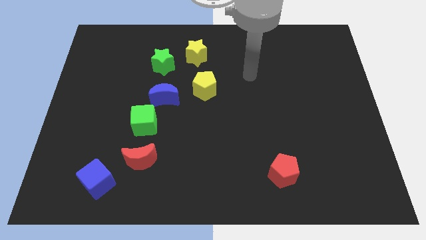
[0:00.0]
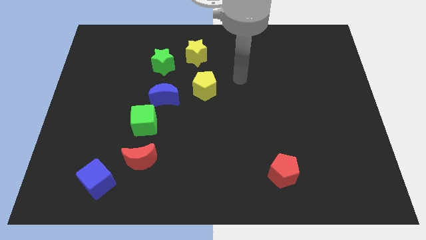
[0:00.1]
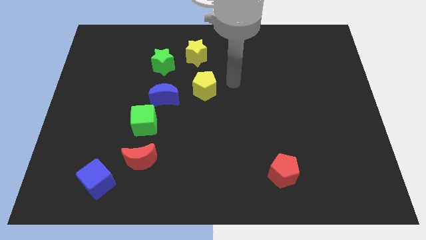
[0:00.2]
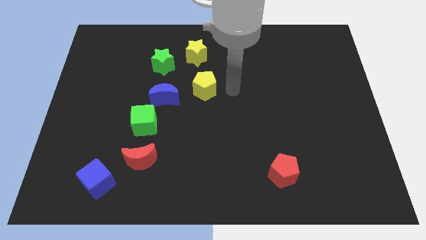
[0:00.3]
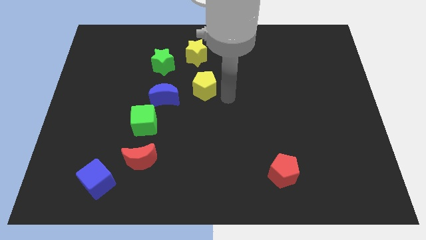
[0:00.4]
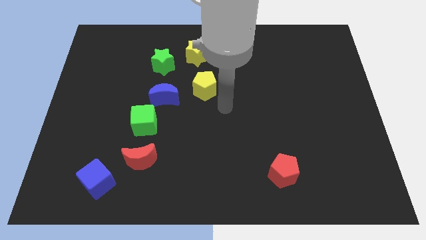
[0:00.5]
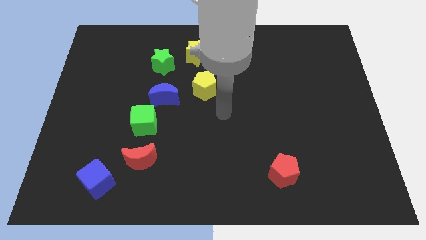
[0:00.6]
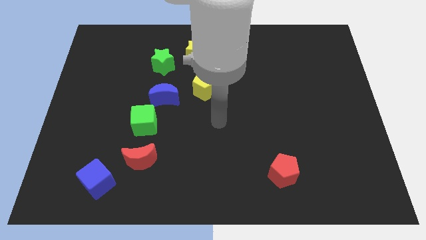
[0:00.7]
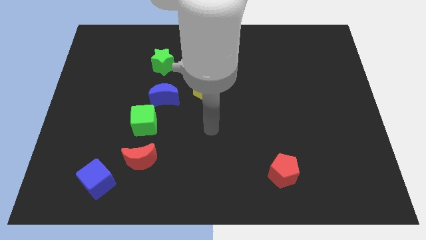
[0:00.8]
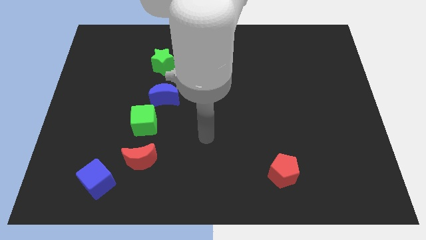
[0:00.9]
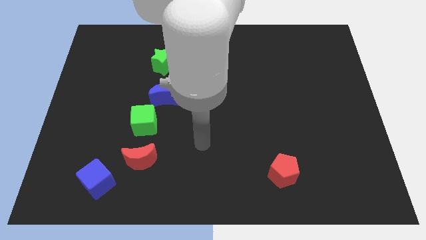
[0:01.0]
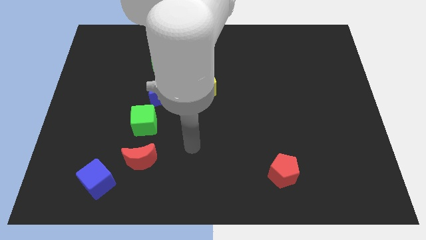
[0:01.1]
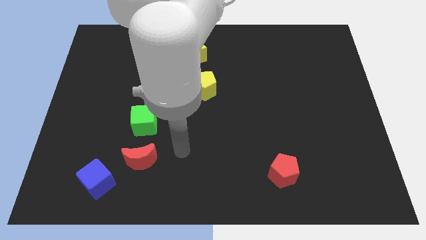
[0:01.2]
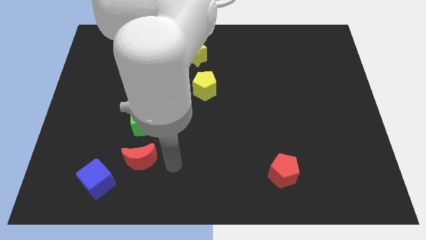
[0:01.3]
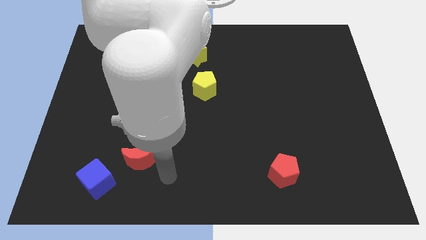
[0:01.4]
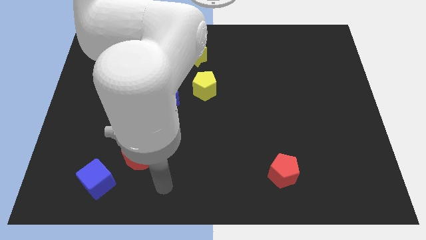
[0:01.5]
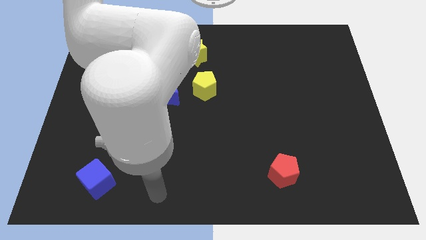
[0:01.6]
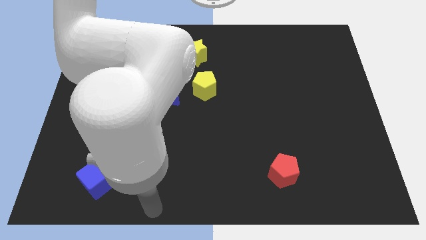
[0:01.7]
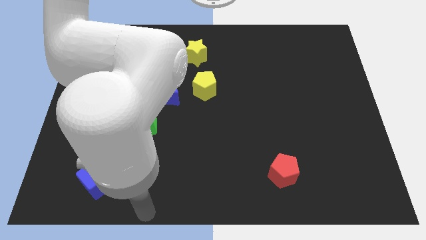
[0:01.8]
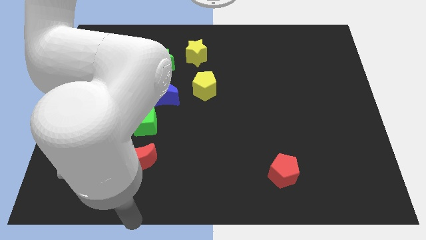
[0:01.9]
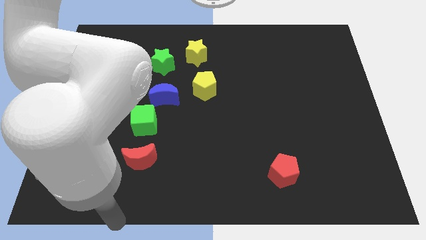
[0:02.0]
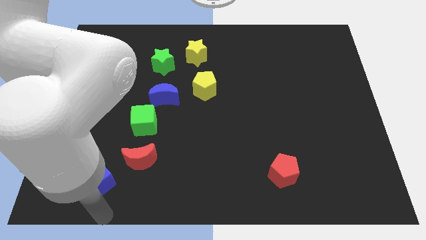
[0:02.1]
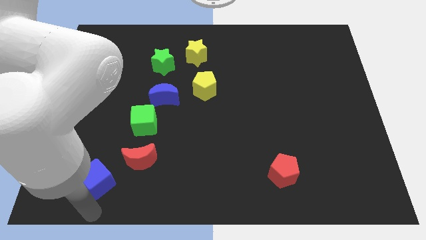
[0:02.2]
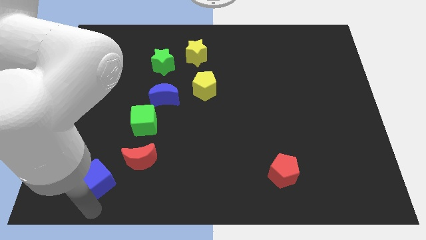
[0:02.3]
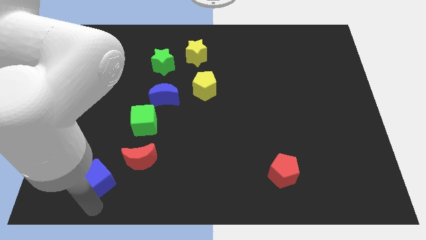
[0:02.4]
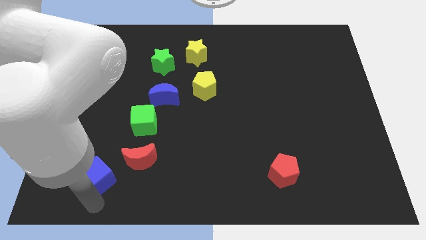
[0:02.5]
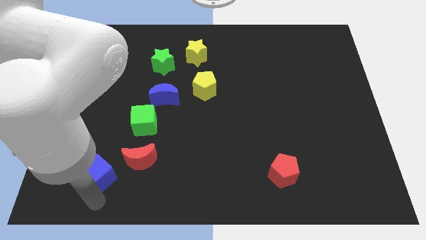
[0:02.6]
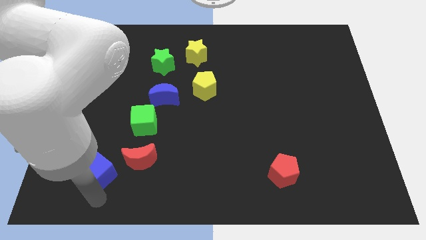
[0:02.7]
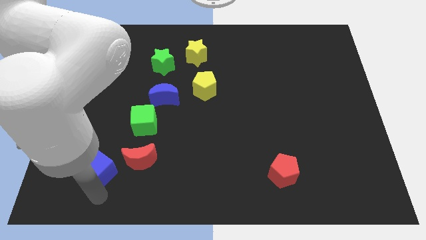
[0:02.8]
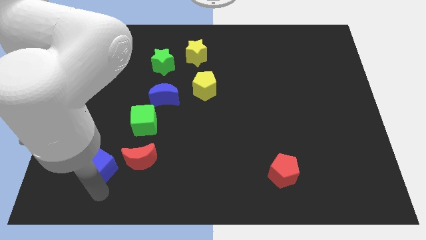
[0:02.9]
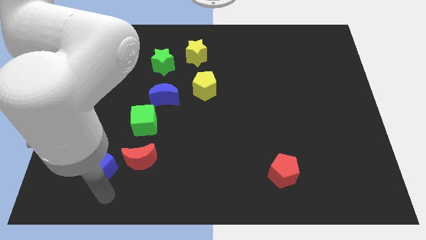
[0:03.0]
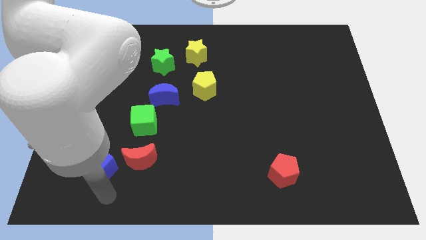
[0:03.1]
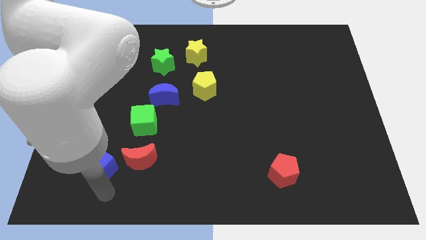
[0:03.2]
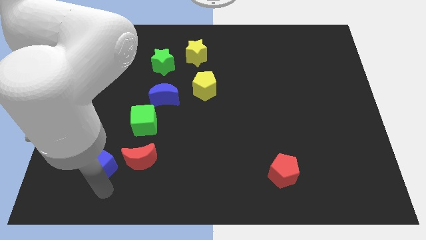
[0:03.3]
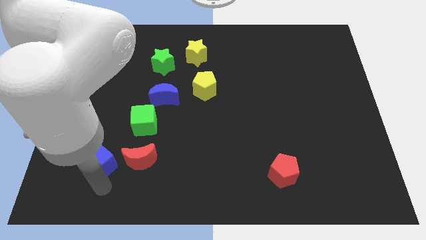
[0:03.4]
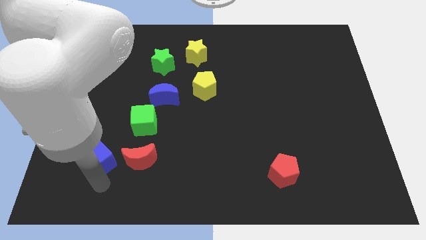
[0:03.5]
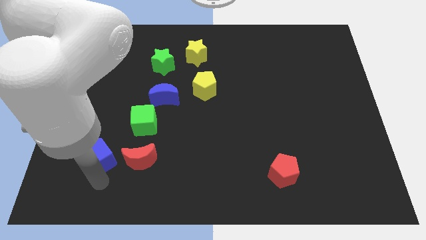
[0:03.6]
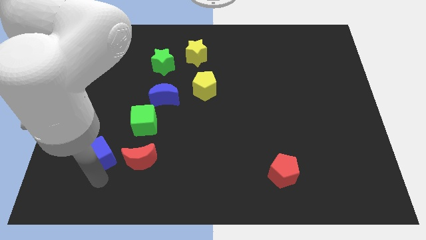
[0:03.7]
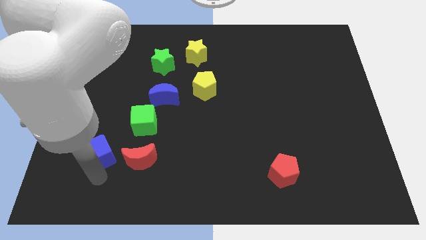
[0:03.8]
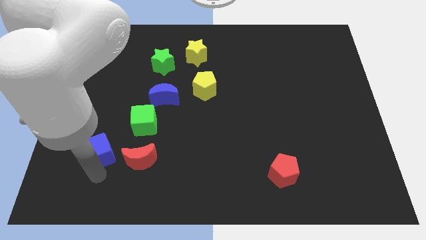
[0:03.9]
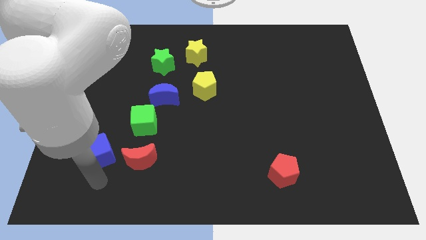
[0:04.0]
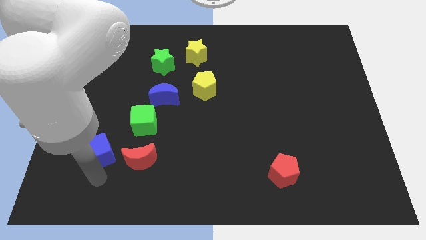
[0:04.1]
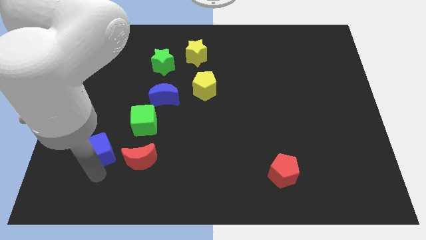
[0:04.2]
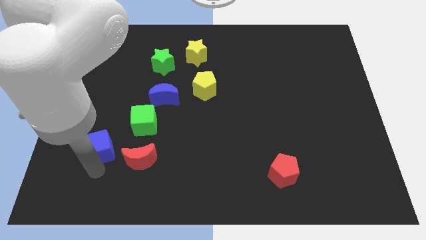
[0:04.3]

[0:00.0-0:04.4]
push the blue cube a little bit up

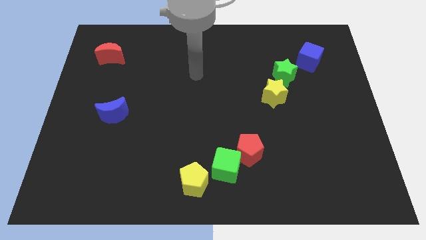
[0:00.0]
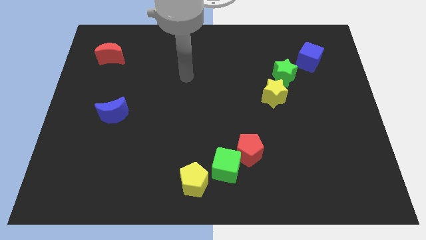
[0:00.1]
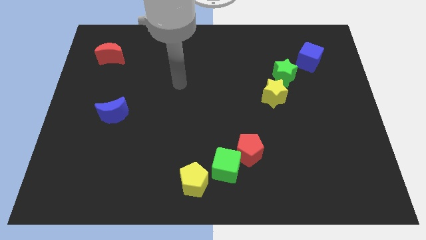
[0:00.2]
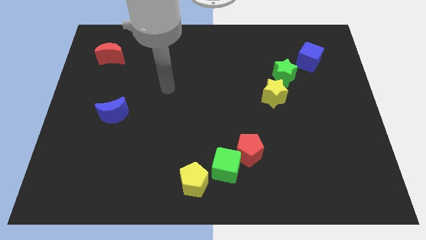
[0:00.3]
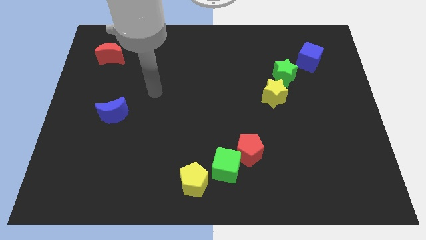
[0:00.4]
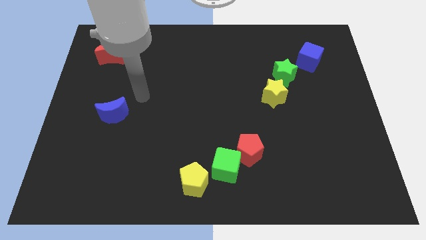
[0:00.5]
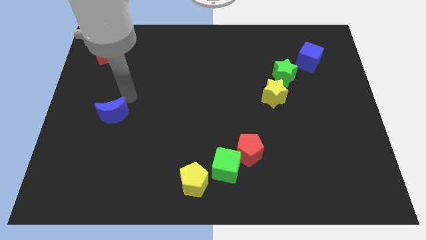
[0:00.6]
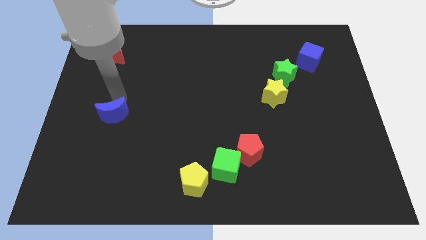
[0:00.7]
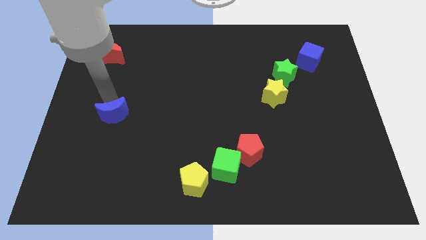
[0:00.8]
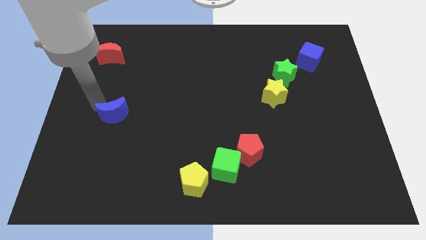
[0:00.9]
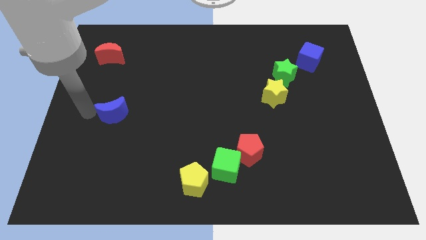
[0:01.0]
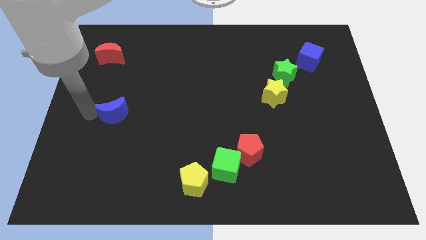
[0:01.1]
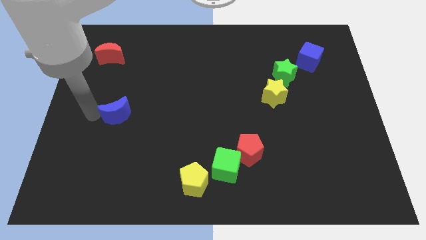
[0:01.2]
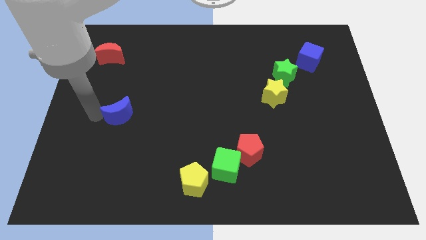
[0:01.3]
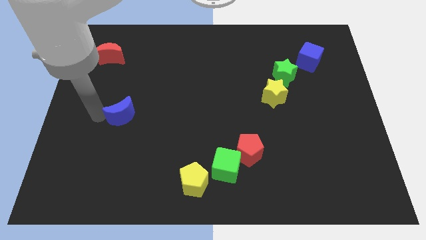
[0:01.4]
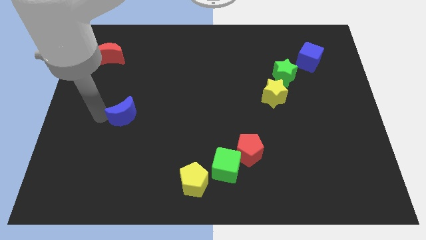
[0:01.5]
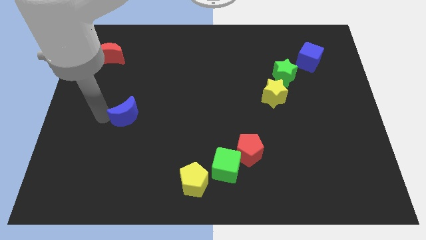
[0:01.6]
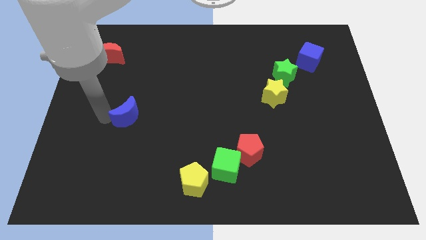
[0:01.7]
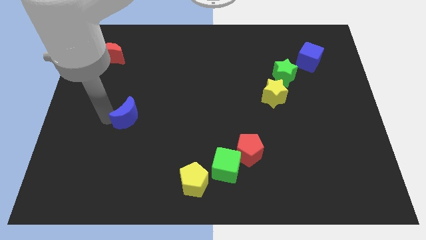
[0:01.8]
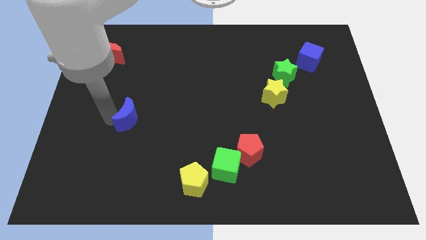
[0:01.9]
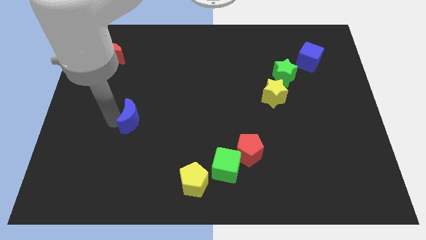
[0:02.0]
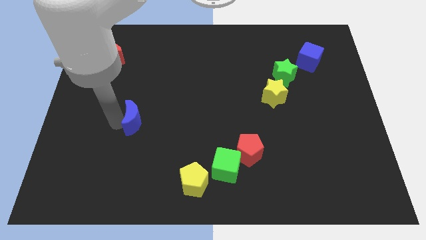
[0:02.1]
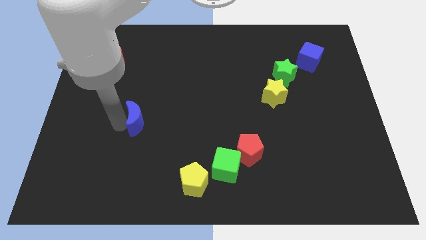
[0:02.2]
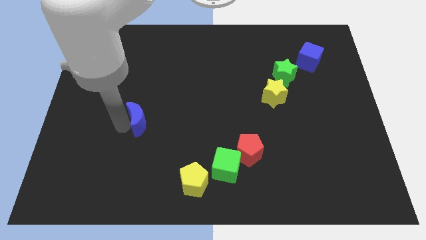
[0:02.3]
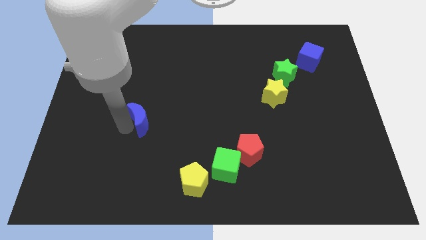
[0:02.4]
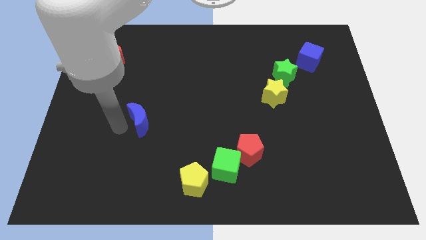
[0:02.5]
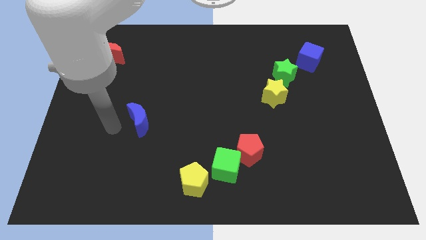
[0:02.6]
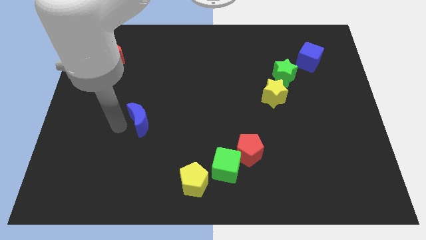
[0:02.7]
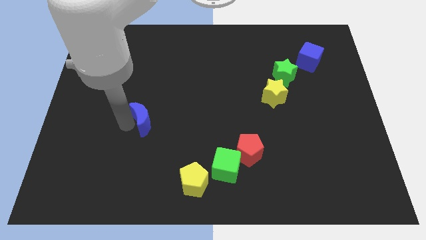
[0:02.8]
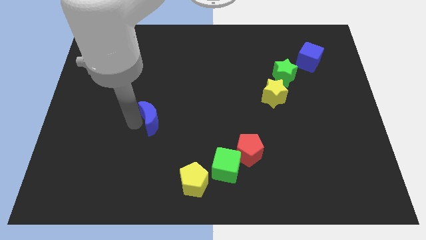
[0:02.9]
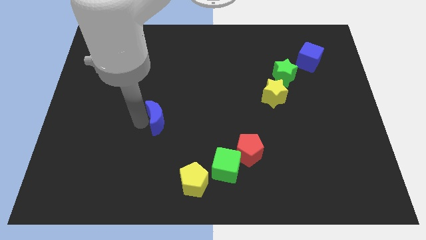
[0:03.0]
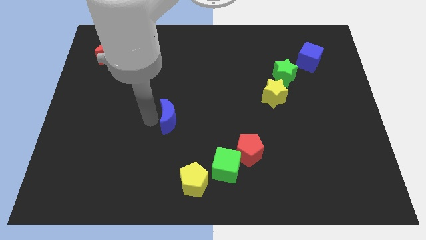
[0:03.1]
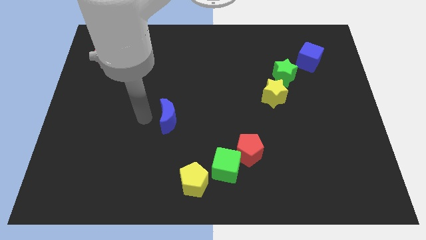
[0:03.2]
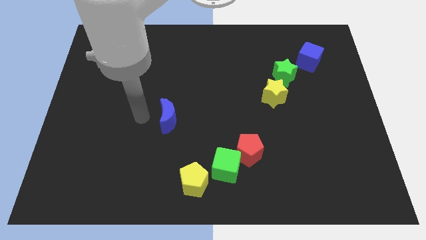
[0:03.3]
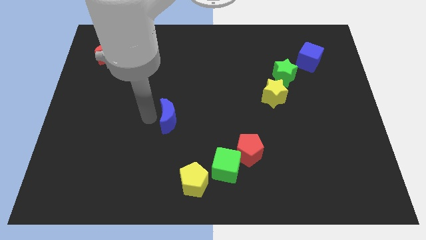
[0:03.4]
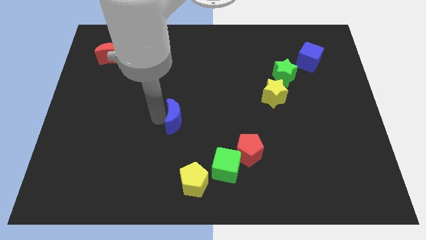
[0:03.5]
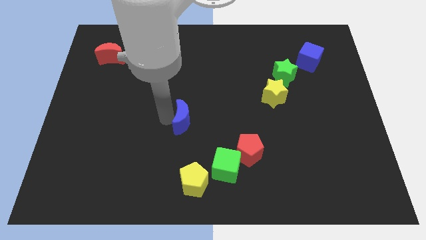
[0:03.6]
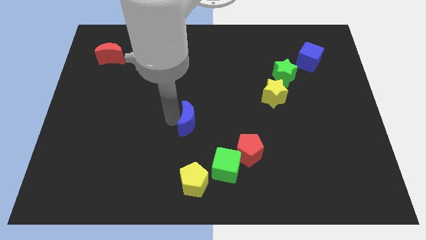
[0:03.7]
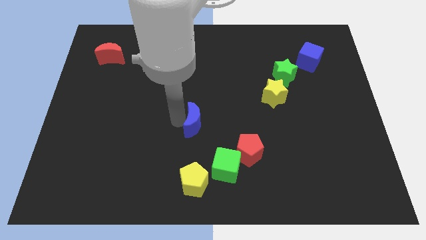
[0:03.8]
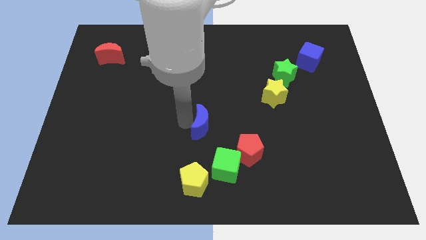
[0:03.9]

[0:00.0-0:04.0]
push the blue moon right
